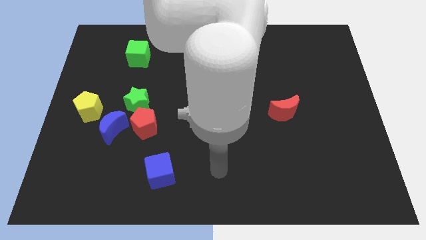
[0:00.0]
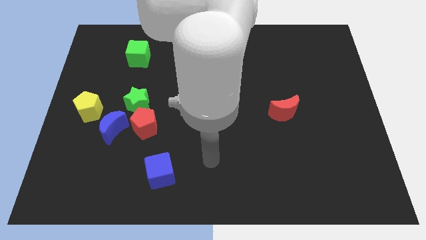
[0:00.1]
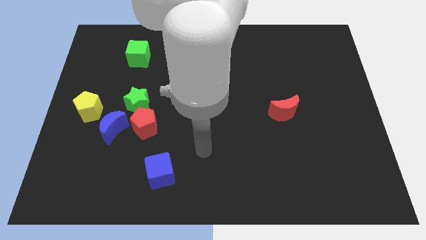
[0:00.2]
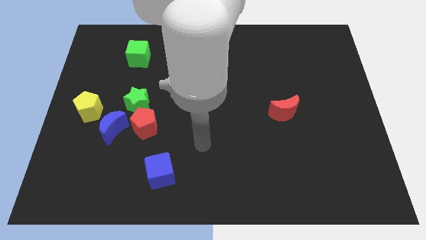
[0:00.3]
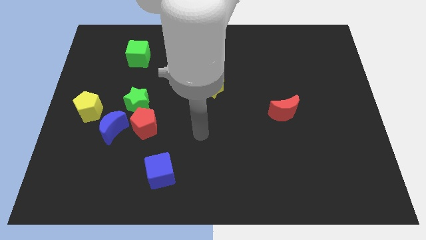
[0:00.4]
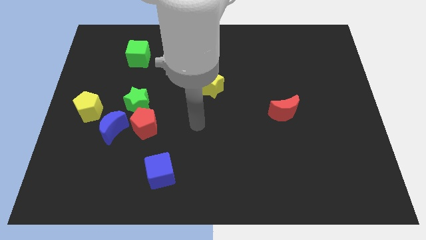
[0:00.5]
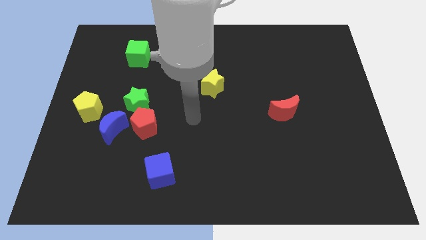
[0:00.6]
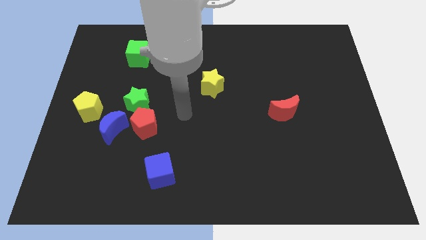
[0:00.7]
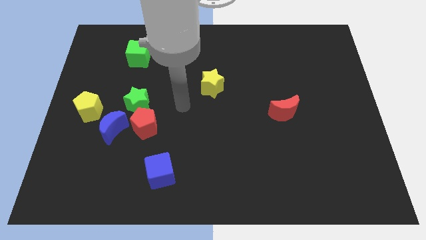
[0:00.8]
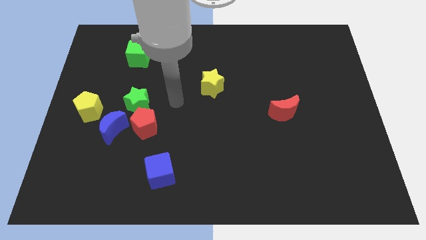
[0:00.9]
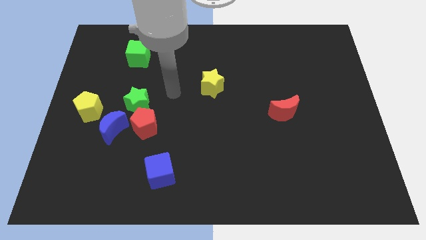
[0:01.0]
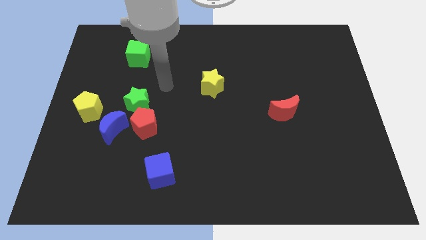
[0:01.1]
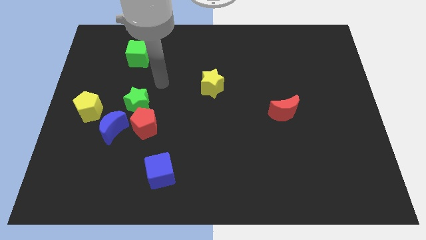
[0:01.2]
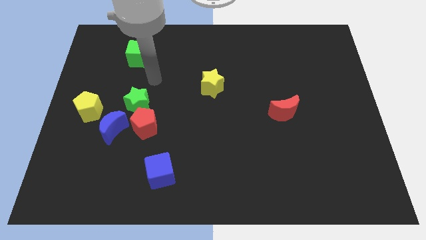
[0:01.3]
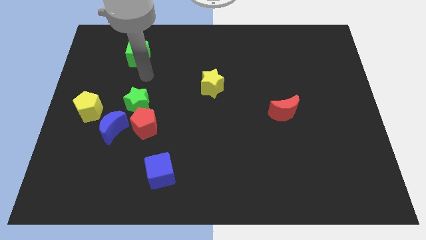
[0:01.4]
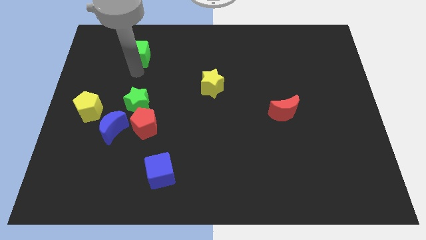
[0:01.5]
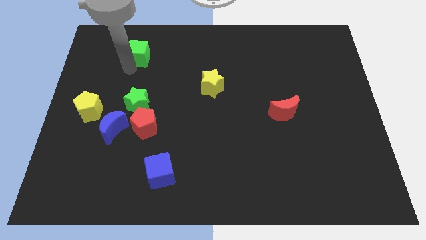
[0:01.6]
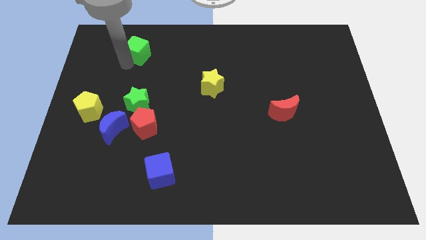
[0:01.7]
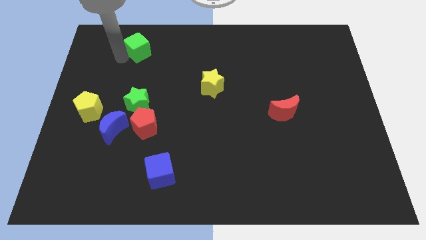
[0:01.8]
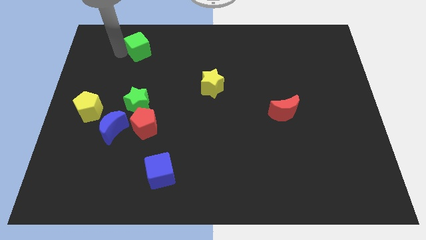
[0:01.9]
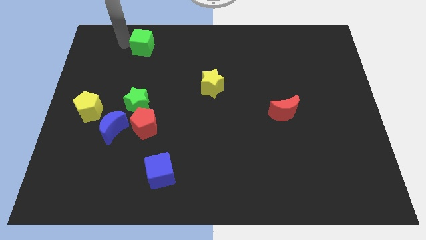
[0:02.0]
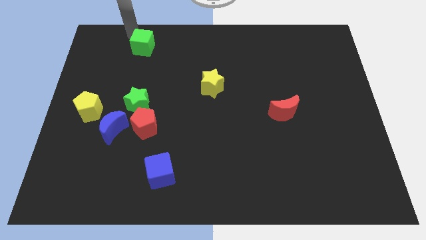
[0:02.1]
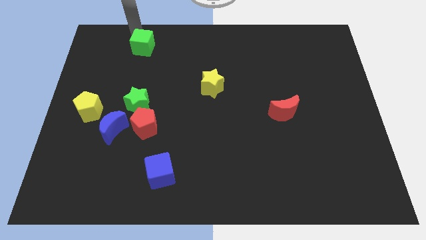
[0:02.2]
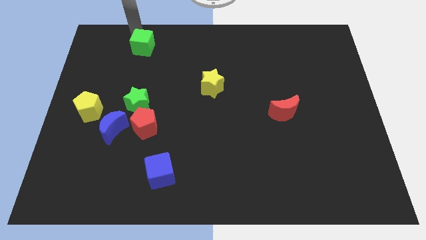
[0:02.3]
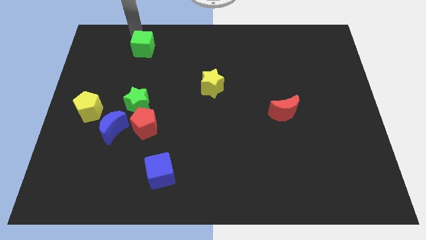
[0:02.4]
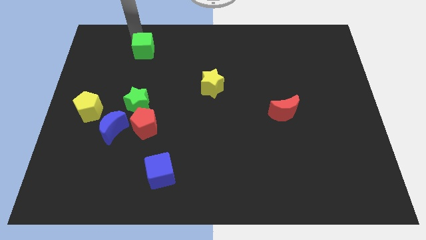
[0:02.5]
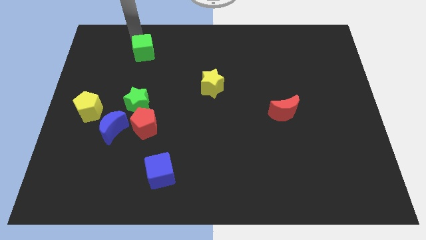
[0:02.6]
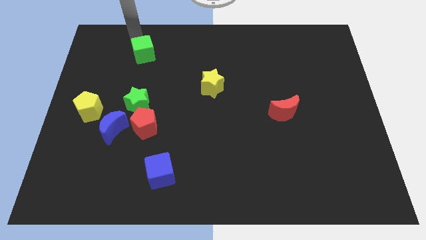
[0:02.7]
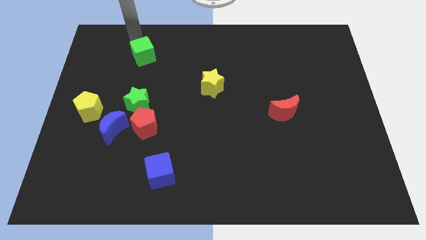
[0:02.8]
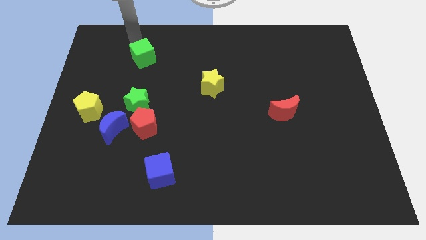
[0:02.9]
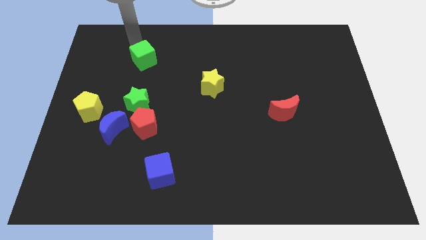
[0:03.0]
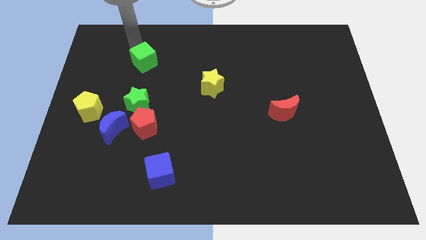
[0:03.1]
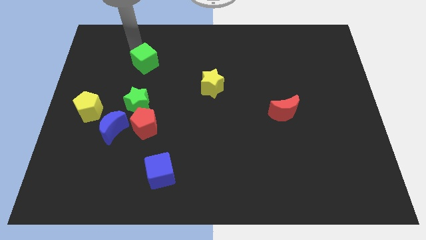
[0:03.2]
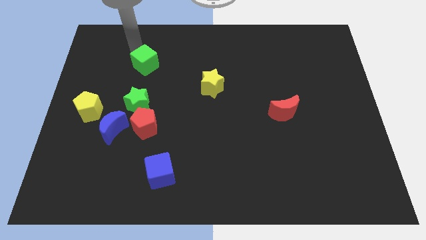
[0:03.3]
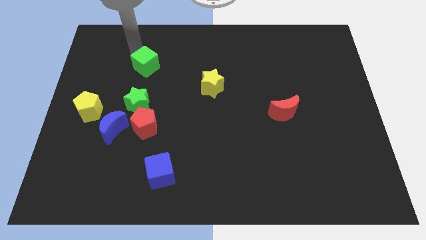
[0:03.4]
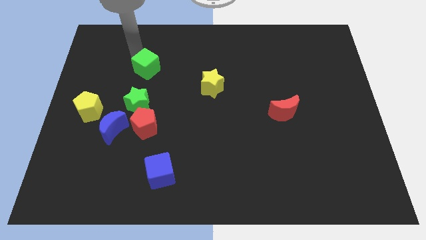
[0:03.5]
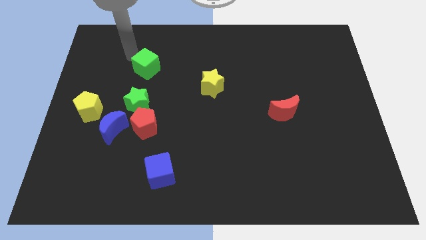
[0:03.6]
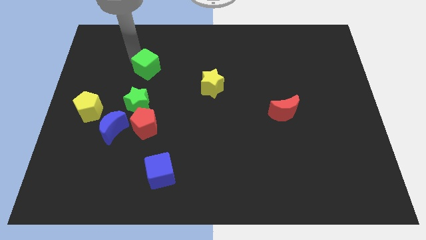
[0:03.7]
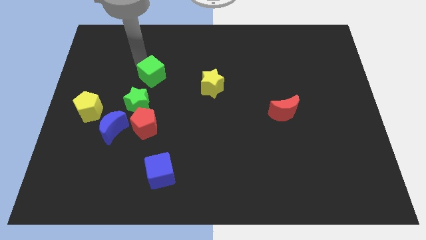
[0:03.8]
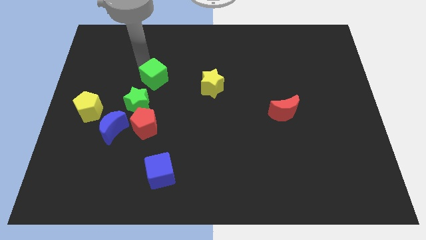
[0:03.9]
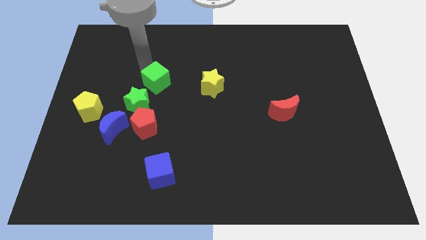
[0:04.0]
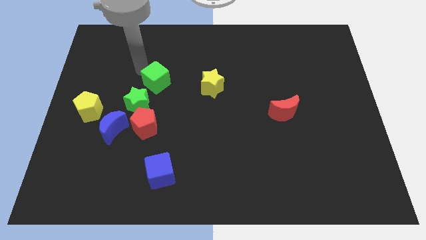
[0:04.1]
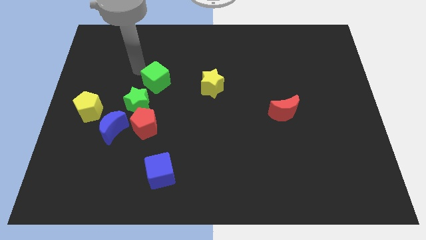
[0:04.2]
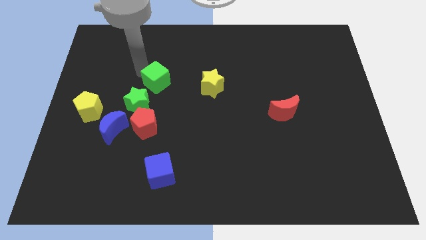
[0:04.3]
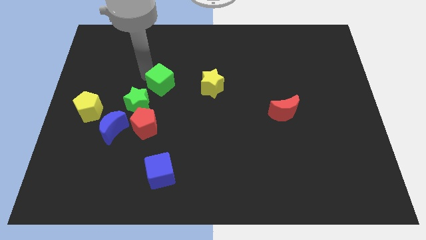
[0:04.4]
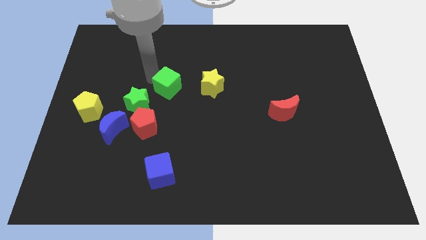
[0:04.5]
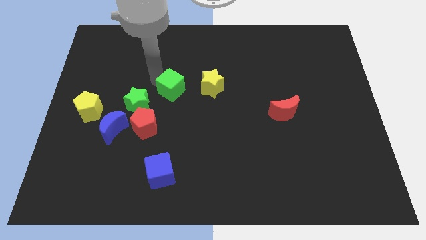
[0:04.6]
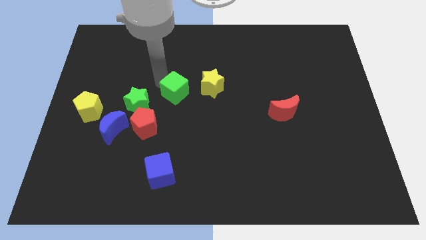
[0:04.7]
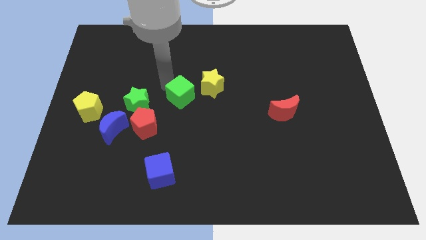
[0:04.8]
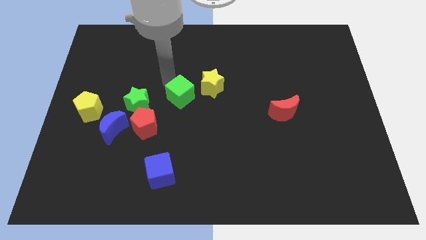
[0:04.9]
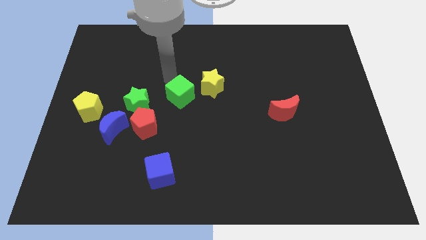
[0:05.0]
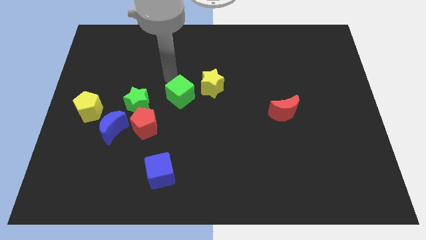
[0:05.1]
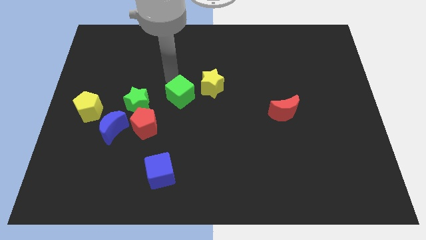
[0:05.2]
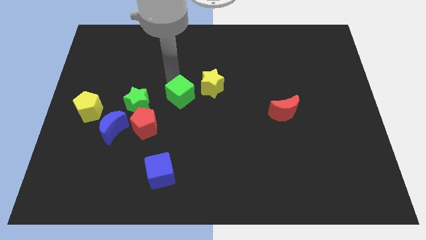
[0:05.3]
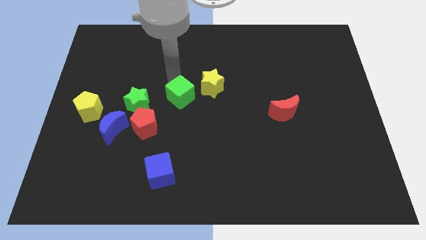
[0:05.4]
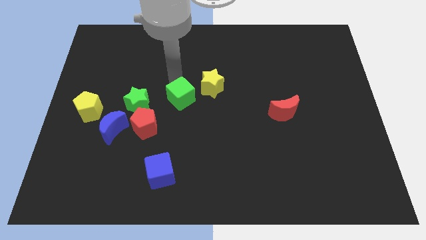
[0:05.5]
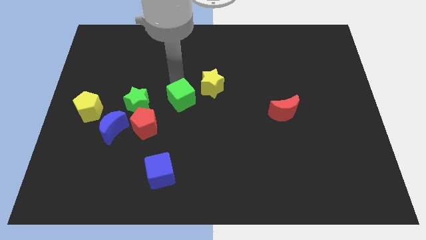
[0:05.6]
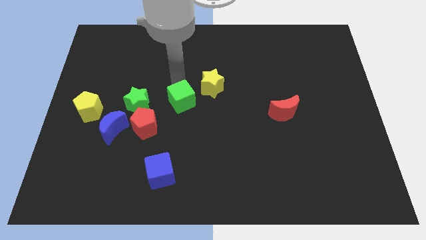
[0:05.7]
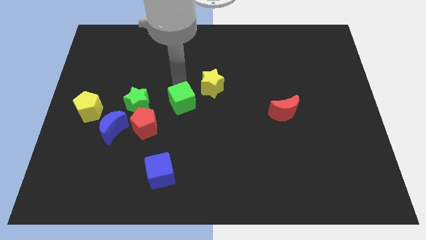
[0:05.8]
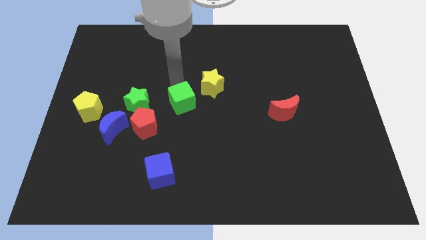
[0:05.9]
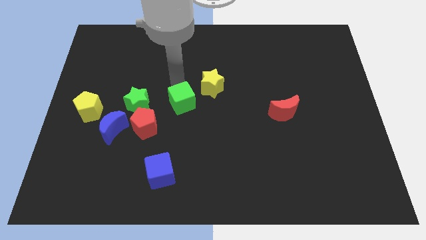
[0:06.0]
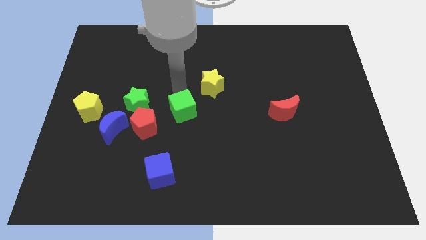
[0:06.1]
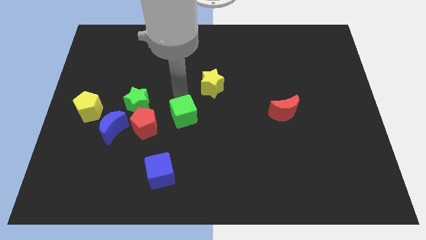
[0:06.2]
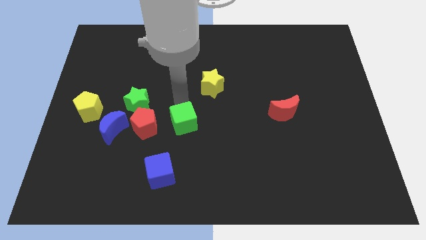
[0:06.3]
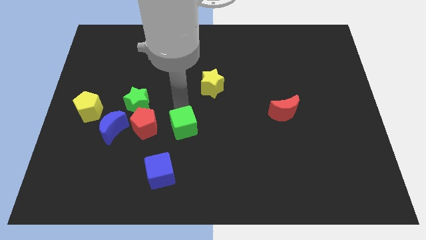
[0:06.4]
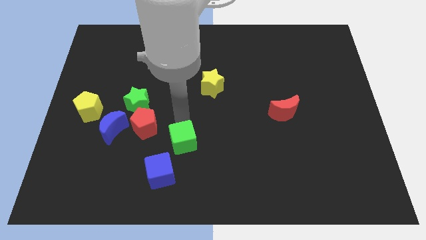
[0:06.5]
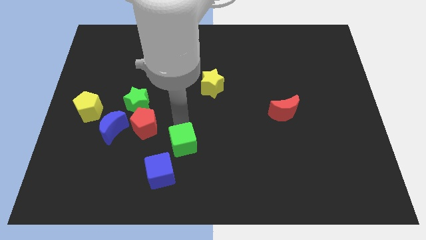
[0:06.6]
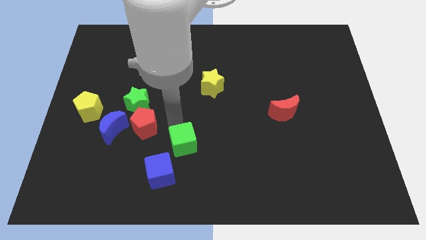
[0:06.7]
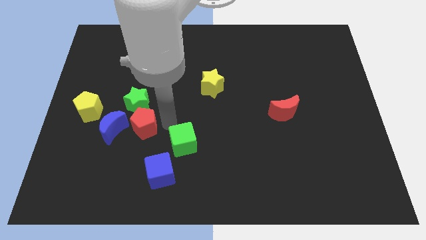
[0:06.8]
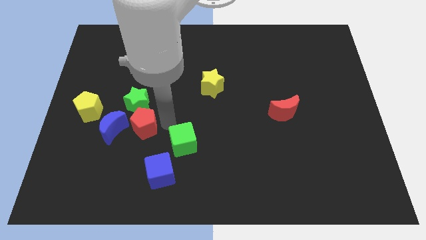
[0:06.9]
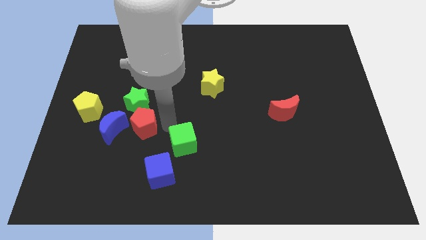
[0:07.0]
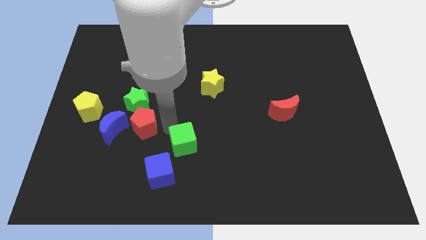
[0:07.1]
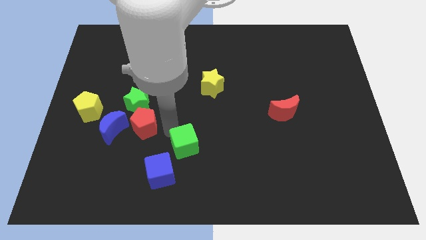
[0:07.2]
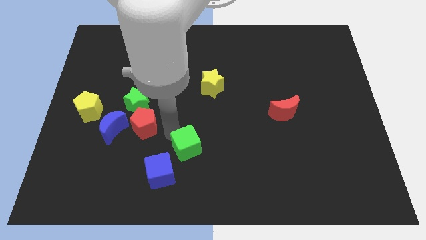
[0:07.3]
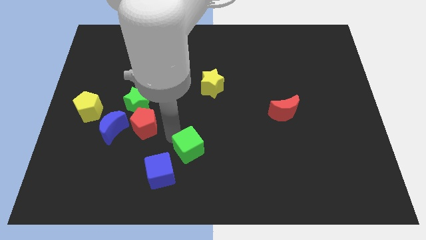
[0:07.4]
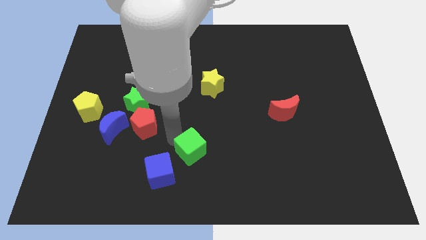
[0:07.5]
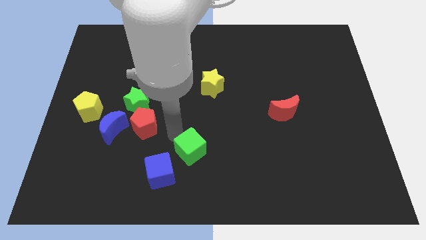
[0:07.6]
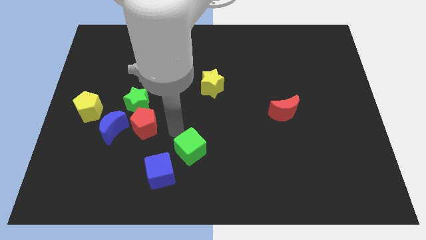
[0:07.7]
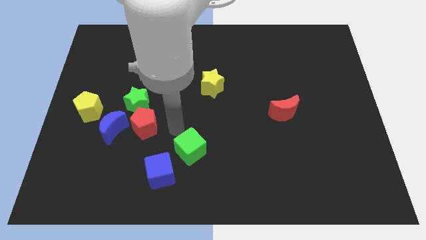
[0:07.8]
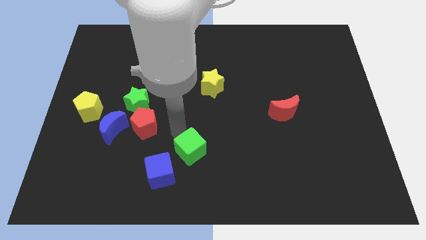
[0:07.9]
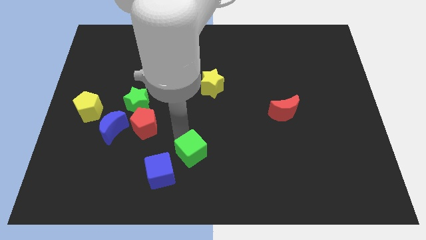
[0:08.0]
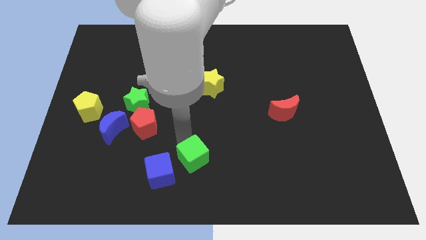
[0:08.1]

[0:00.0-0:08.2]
slide the green cube to the bottom
